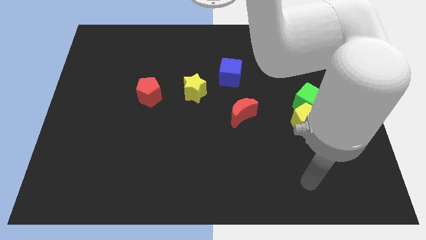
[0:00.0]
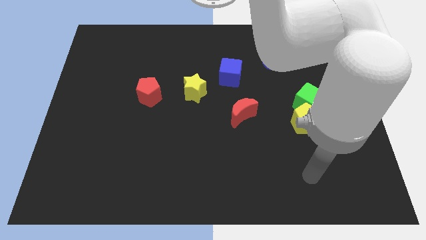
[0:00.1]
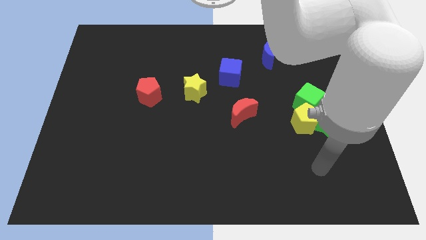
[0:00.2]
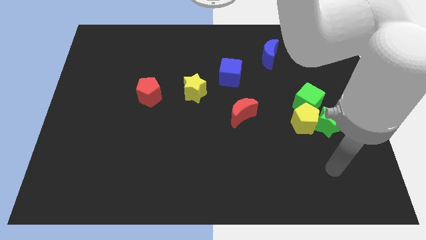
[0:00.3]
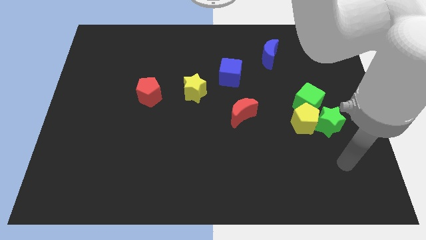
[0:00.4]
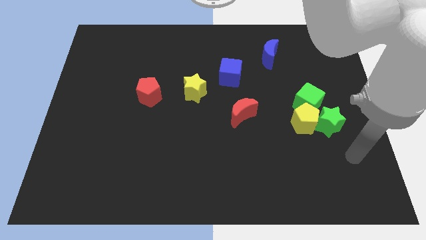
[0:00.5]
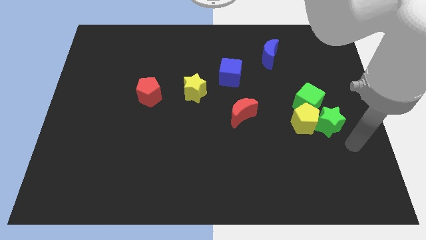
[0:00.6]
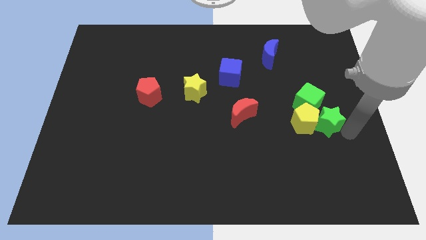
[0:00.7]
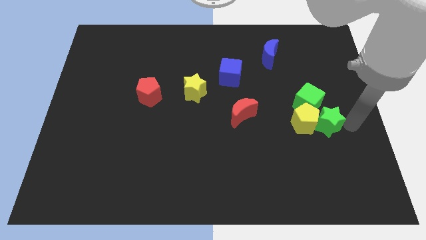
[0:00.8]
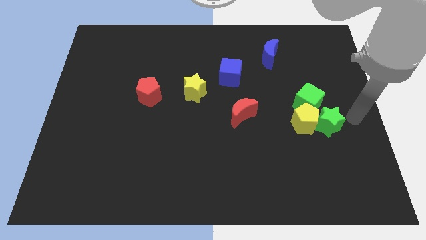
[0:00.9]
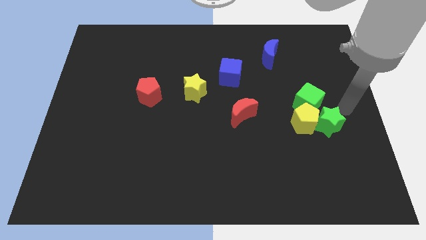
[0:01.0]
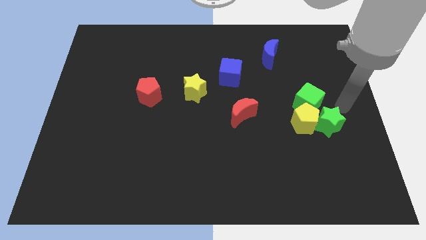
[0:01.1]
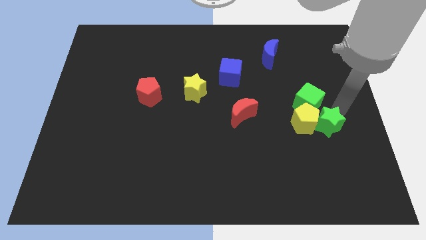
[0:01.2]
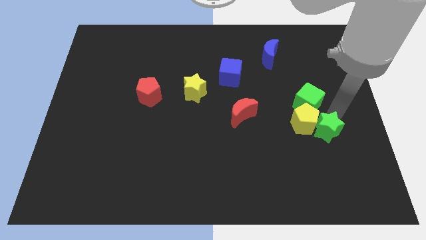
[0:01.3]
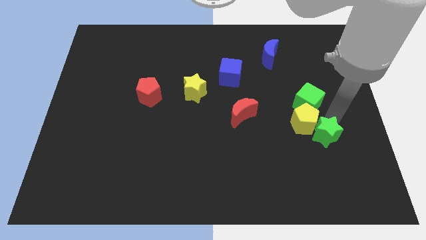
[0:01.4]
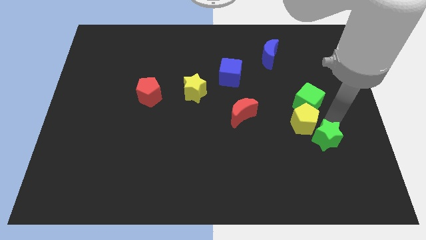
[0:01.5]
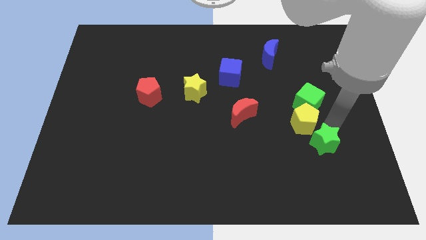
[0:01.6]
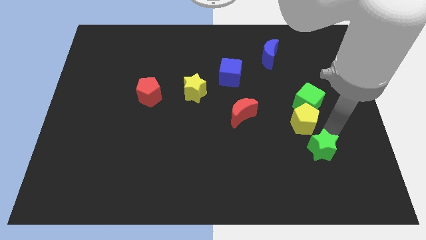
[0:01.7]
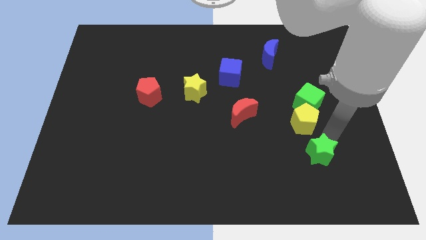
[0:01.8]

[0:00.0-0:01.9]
slightly push the green star down and left

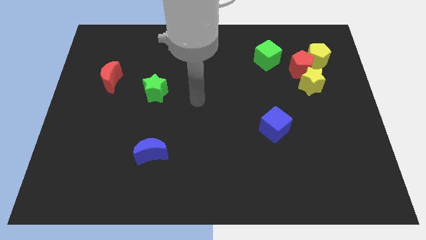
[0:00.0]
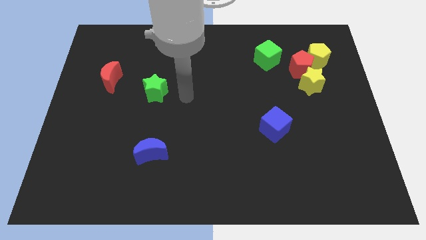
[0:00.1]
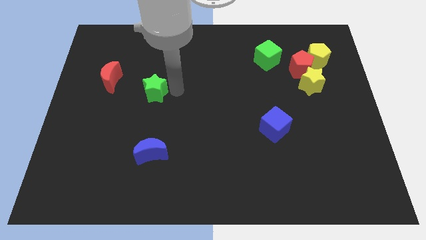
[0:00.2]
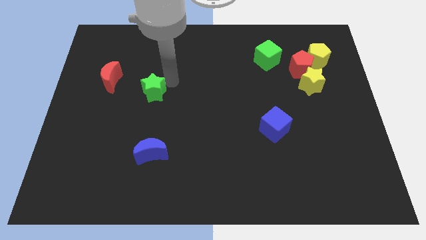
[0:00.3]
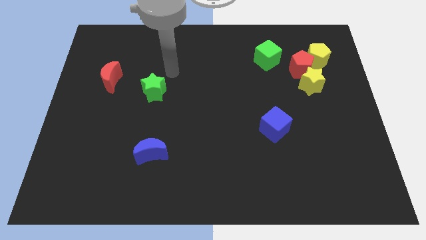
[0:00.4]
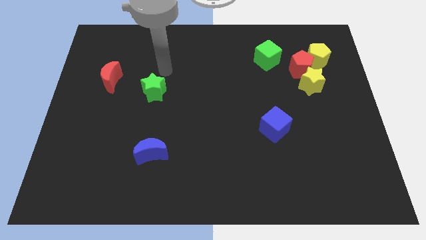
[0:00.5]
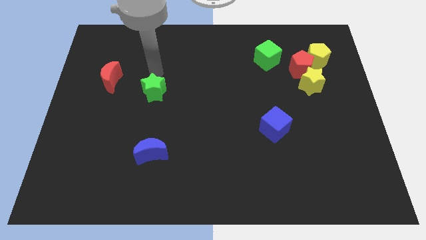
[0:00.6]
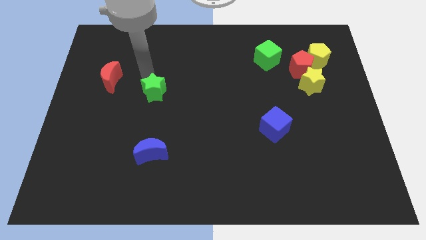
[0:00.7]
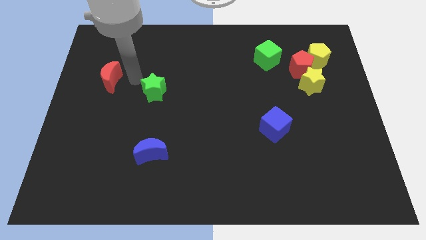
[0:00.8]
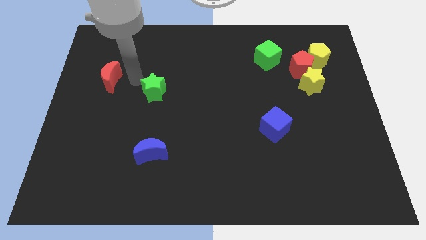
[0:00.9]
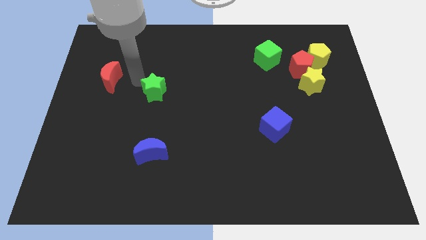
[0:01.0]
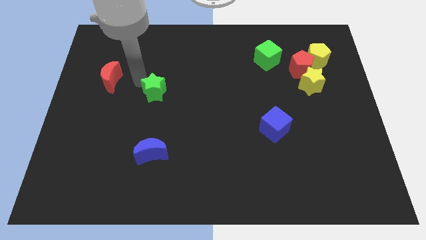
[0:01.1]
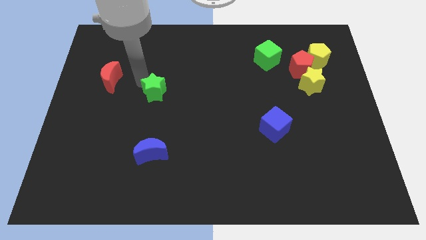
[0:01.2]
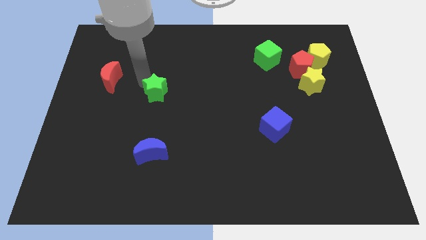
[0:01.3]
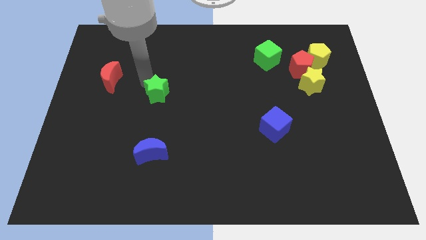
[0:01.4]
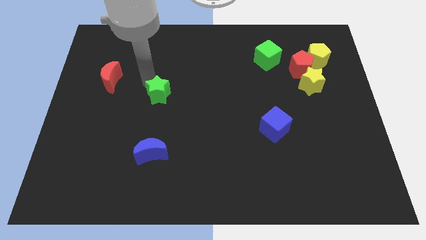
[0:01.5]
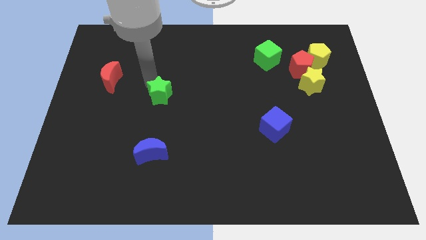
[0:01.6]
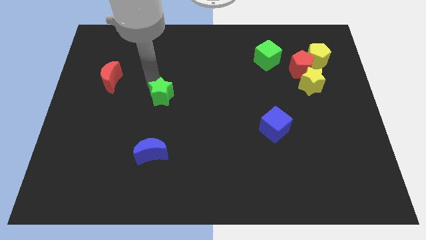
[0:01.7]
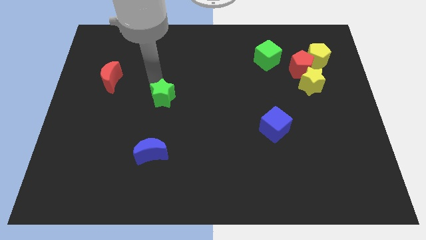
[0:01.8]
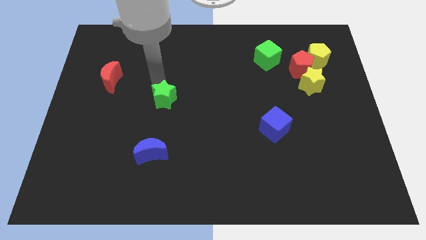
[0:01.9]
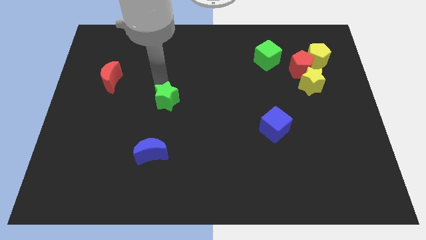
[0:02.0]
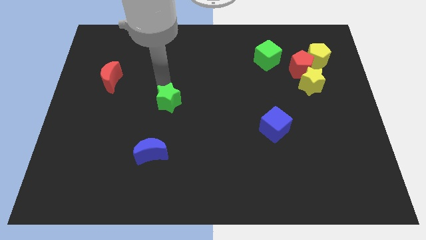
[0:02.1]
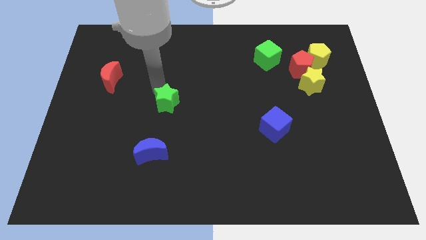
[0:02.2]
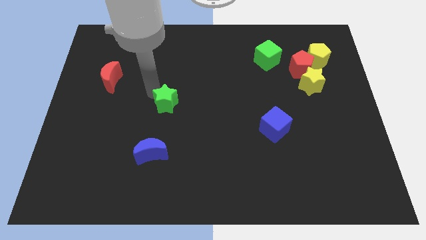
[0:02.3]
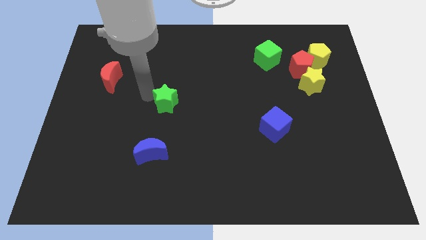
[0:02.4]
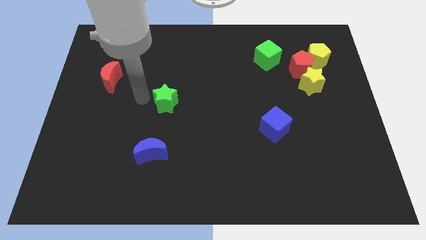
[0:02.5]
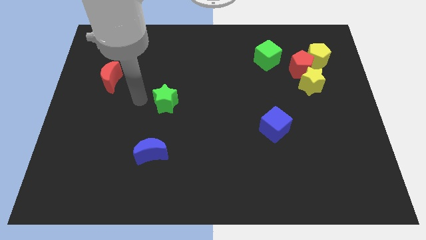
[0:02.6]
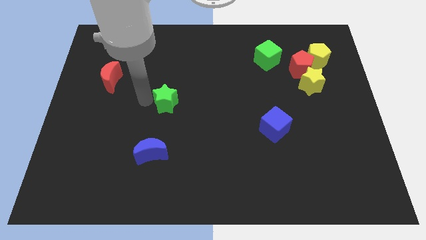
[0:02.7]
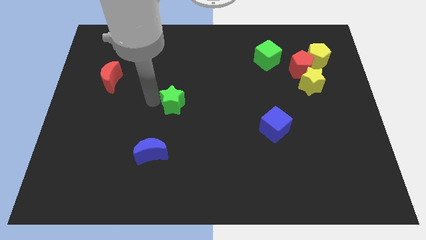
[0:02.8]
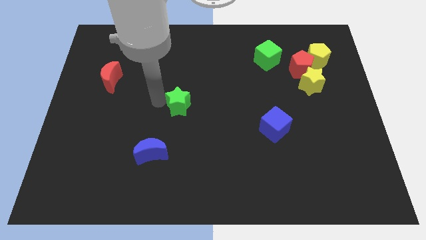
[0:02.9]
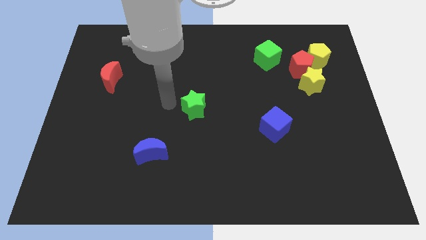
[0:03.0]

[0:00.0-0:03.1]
slightly push the green star right

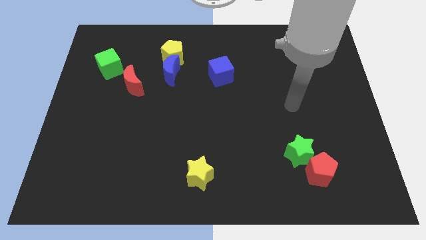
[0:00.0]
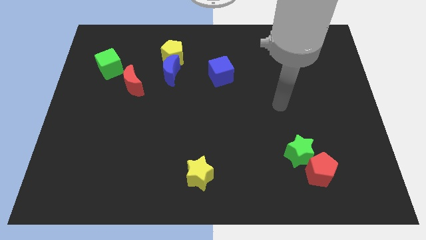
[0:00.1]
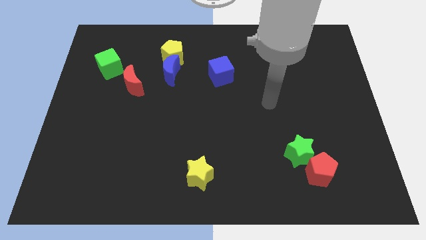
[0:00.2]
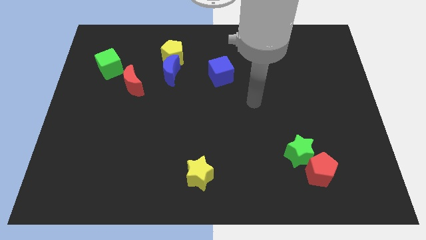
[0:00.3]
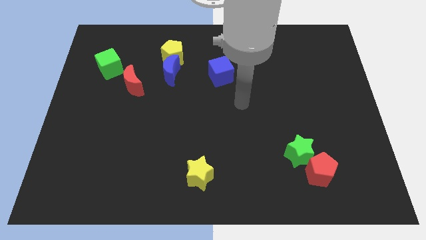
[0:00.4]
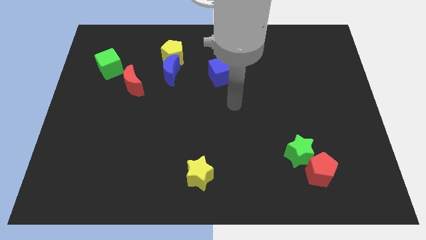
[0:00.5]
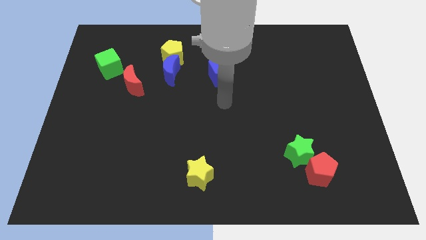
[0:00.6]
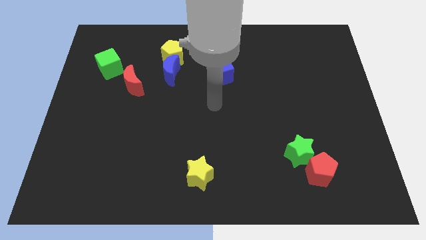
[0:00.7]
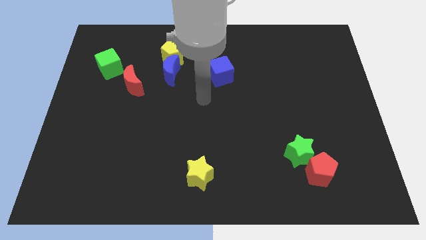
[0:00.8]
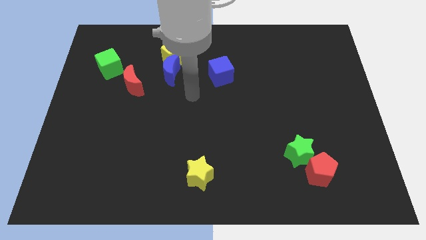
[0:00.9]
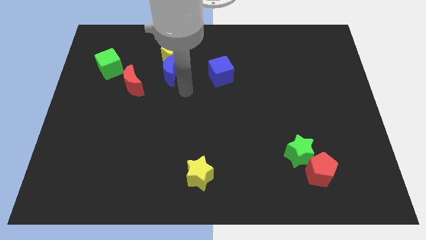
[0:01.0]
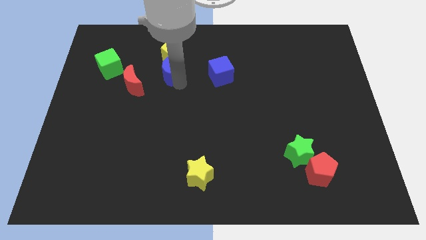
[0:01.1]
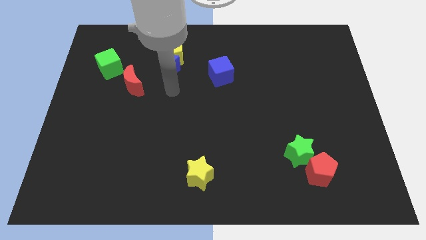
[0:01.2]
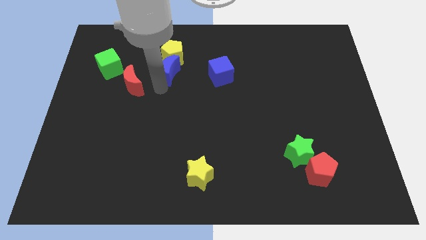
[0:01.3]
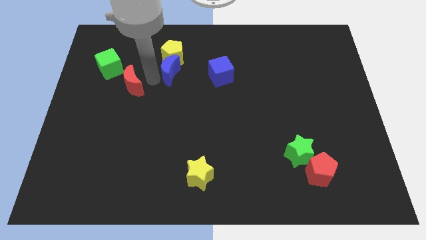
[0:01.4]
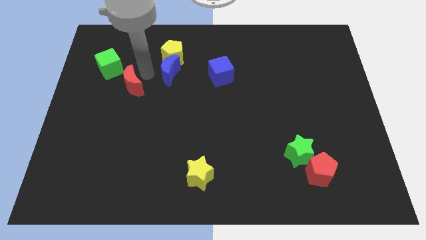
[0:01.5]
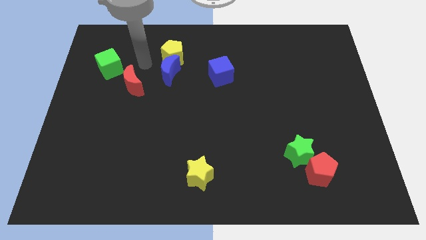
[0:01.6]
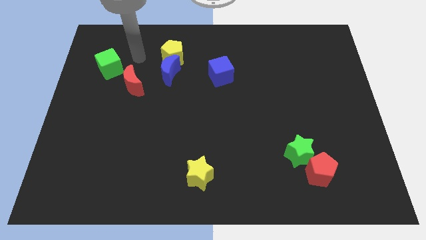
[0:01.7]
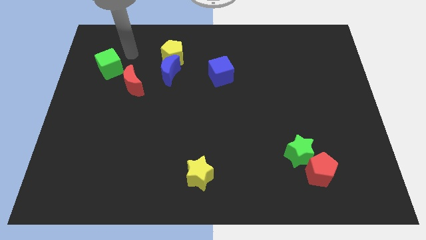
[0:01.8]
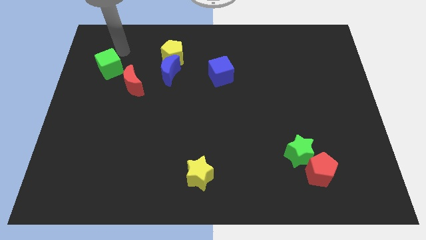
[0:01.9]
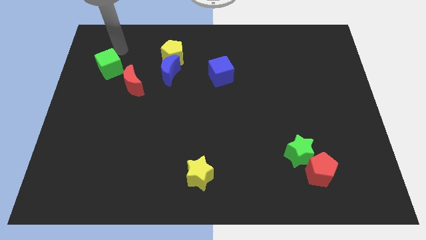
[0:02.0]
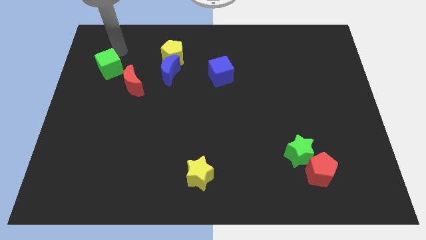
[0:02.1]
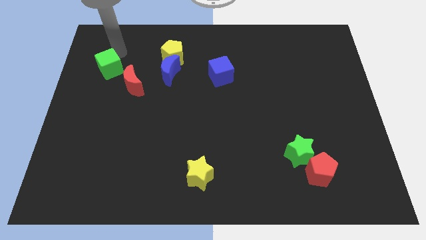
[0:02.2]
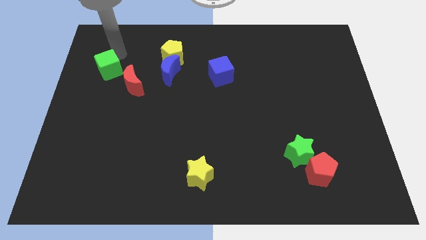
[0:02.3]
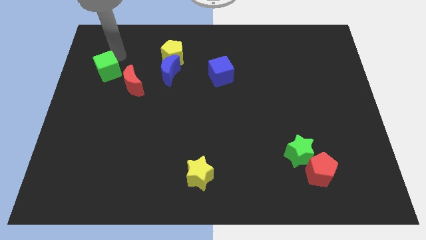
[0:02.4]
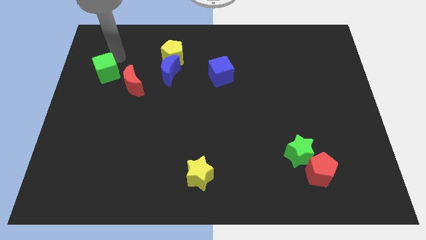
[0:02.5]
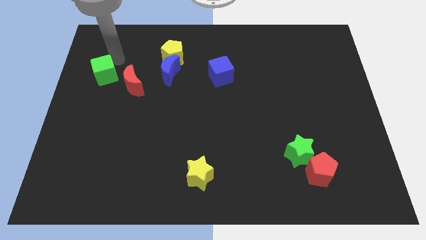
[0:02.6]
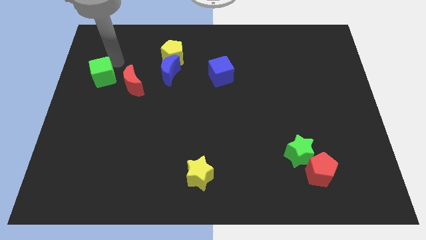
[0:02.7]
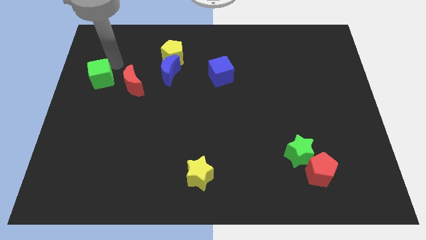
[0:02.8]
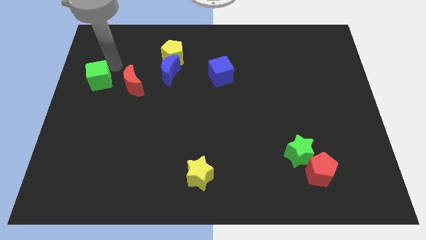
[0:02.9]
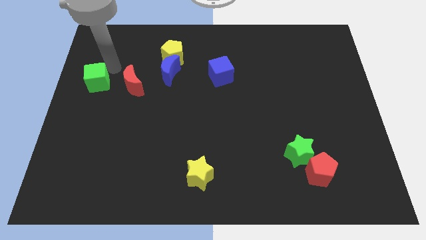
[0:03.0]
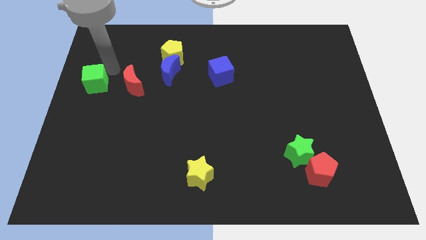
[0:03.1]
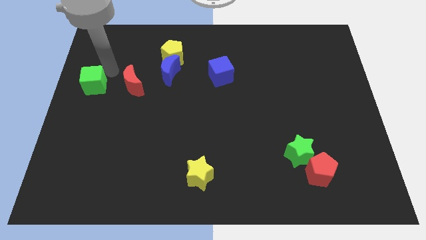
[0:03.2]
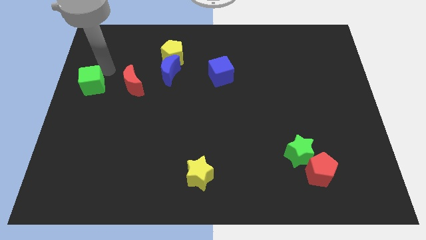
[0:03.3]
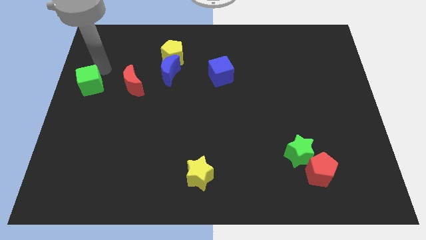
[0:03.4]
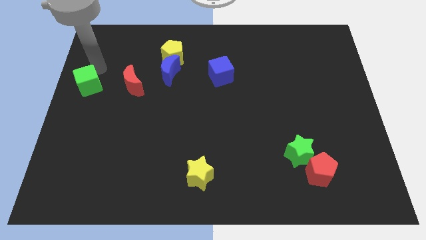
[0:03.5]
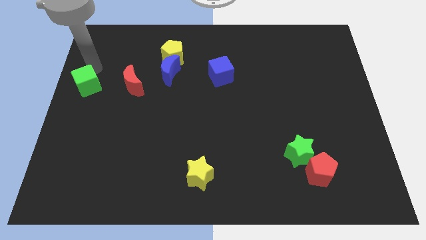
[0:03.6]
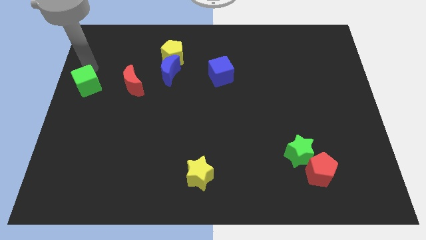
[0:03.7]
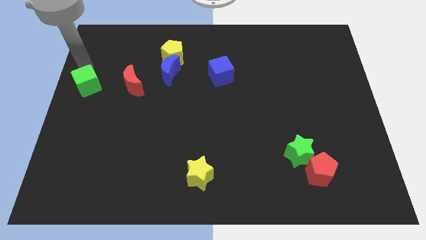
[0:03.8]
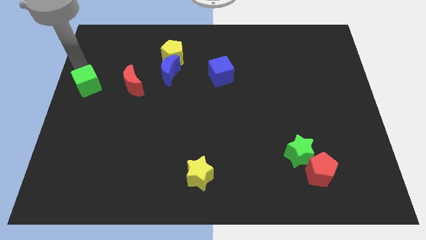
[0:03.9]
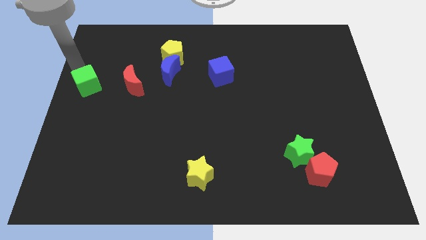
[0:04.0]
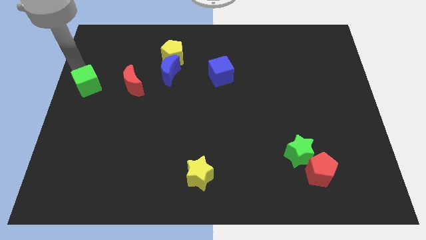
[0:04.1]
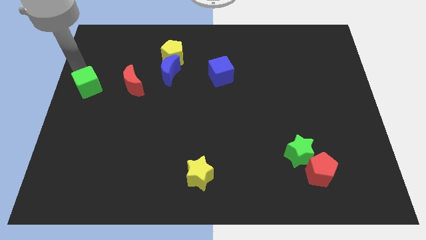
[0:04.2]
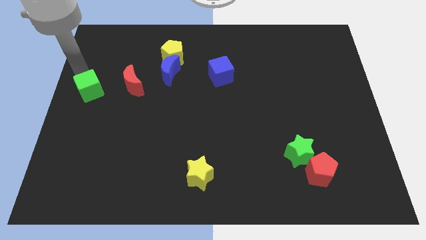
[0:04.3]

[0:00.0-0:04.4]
move the green cube down a bit
